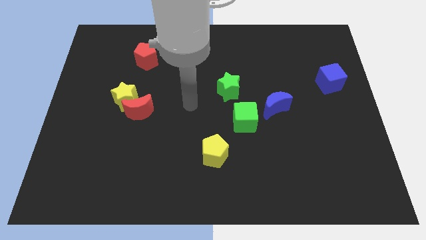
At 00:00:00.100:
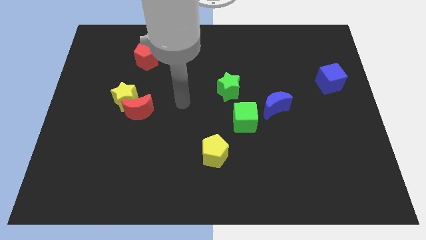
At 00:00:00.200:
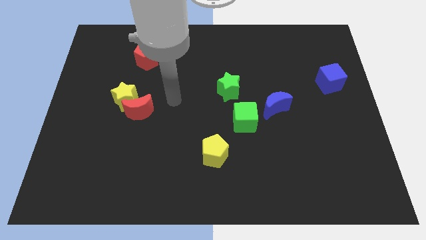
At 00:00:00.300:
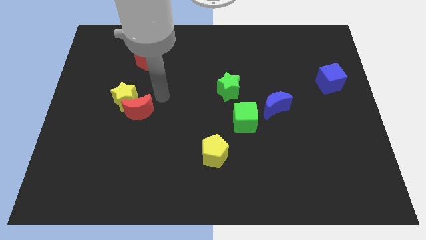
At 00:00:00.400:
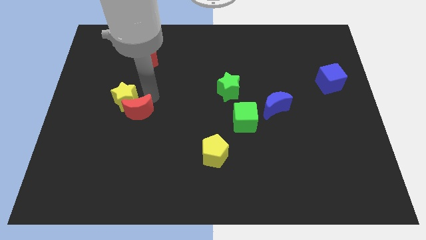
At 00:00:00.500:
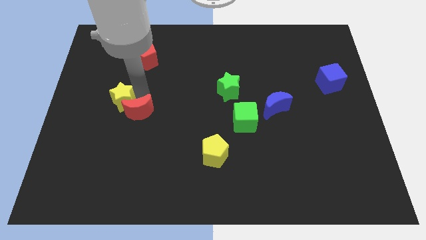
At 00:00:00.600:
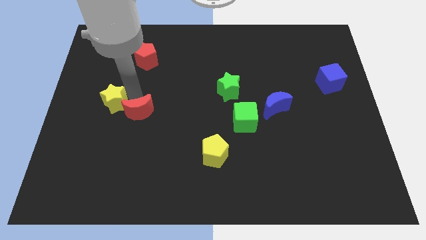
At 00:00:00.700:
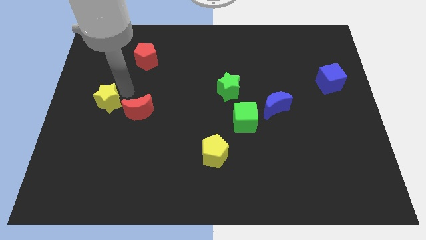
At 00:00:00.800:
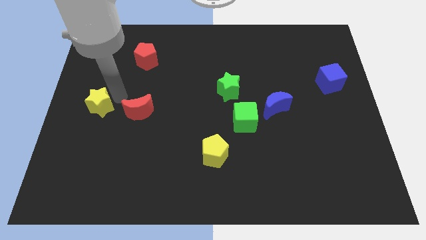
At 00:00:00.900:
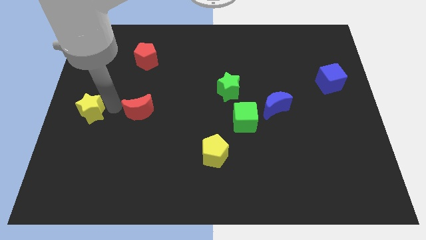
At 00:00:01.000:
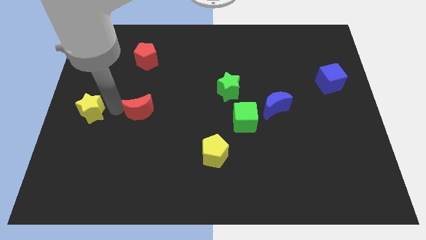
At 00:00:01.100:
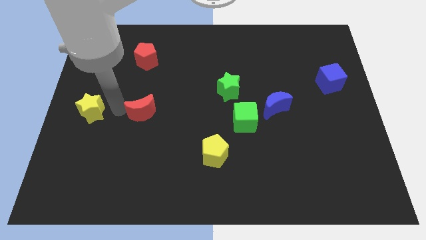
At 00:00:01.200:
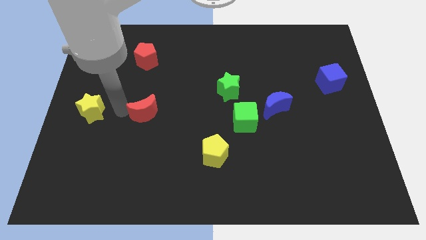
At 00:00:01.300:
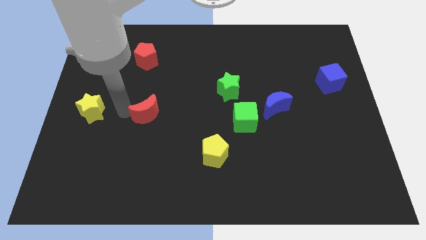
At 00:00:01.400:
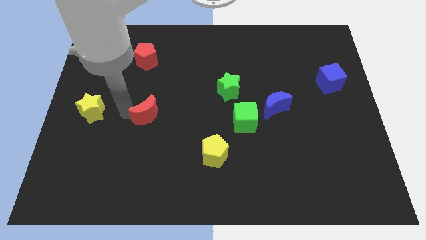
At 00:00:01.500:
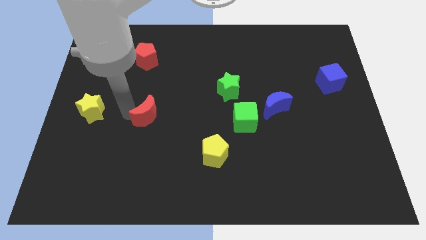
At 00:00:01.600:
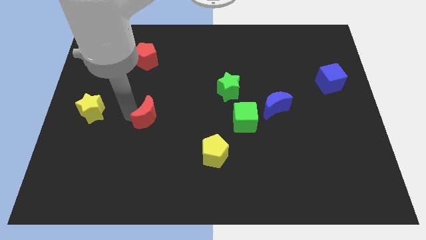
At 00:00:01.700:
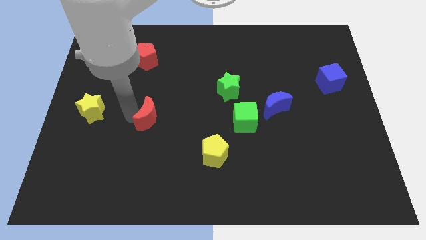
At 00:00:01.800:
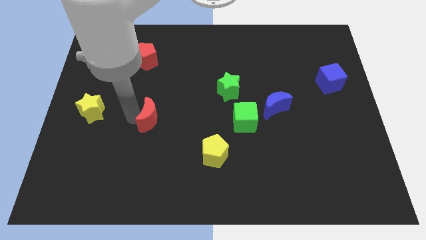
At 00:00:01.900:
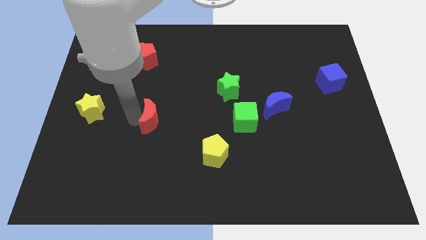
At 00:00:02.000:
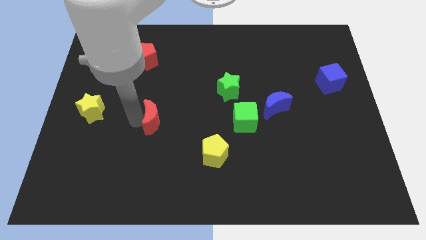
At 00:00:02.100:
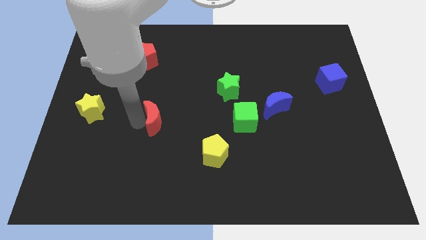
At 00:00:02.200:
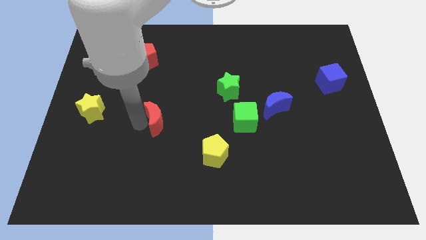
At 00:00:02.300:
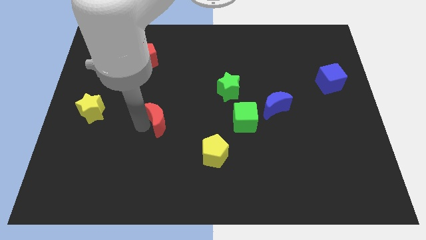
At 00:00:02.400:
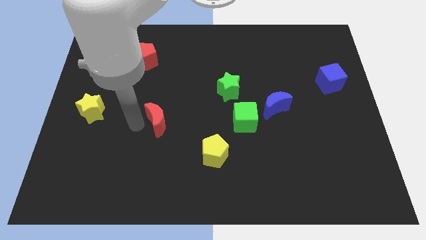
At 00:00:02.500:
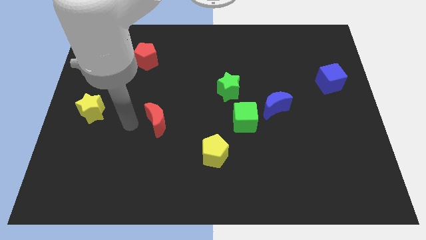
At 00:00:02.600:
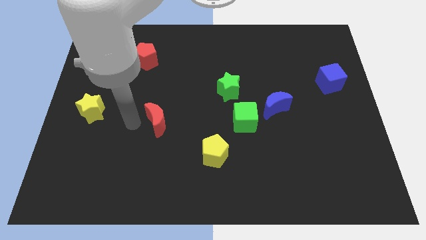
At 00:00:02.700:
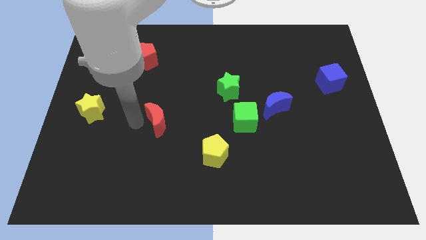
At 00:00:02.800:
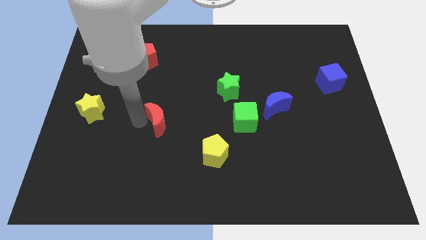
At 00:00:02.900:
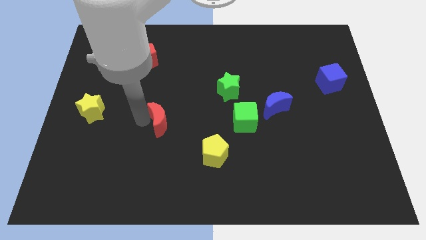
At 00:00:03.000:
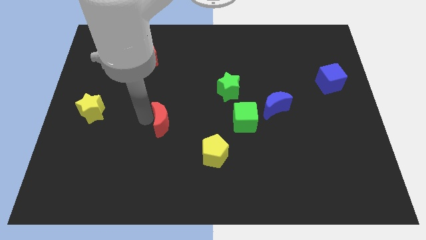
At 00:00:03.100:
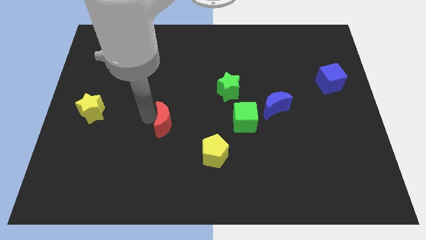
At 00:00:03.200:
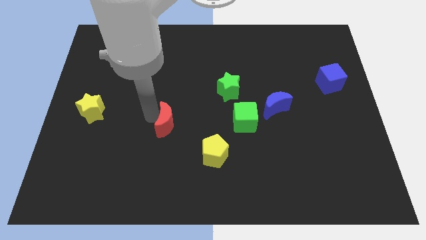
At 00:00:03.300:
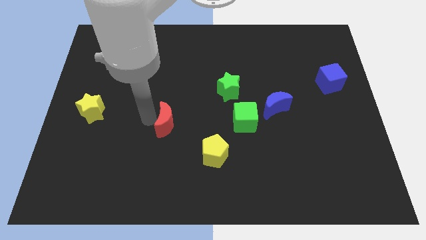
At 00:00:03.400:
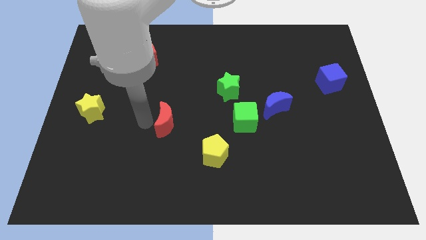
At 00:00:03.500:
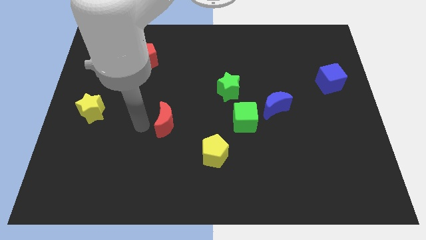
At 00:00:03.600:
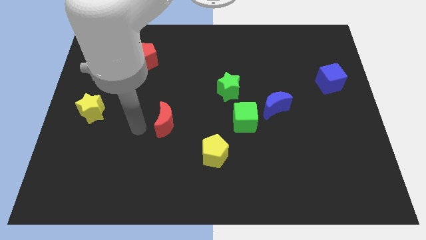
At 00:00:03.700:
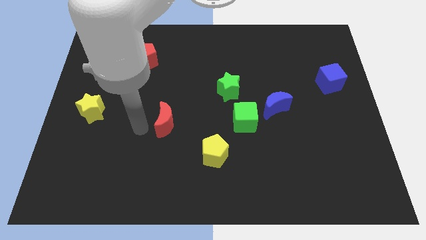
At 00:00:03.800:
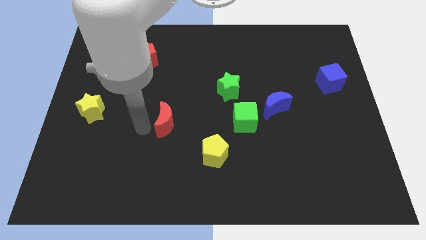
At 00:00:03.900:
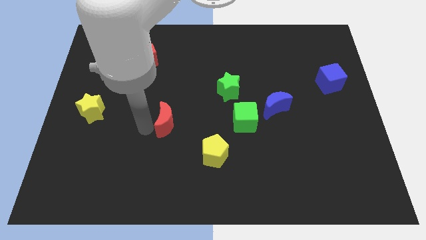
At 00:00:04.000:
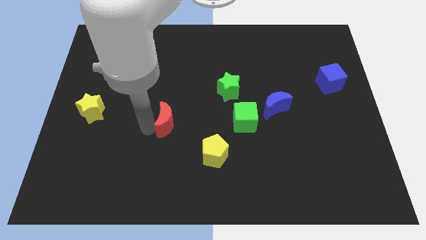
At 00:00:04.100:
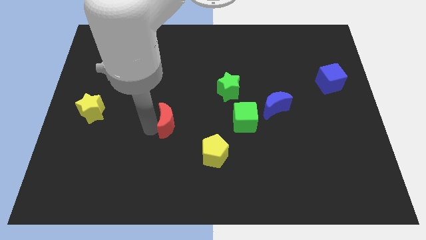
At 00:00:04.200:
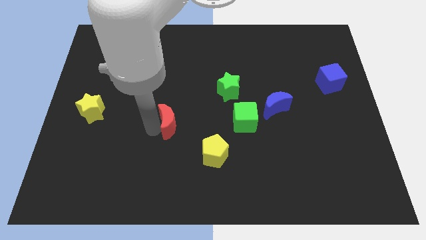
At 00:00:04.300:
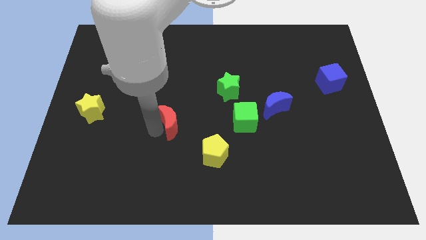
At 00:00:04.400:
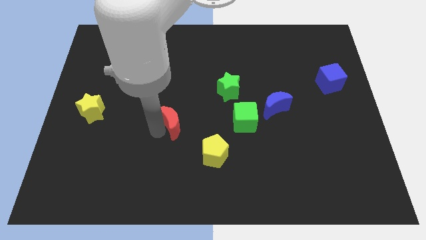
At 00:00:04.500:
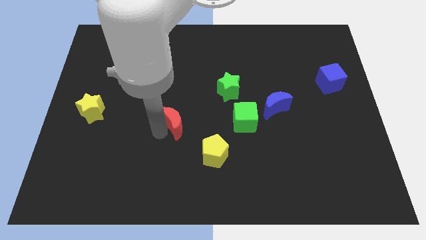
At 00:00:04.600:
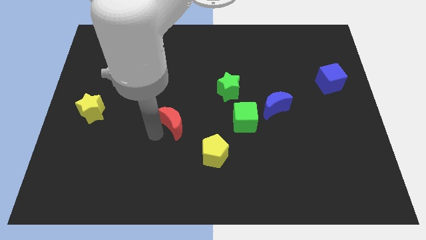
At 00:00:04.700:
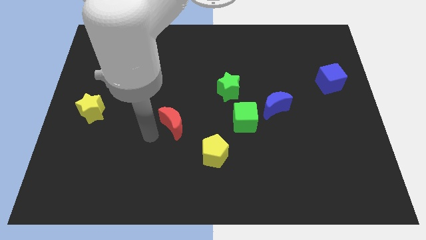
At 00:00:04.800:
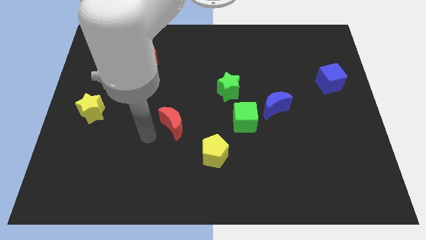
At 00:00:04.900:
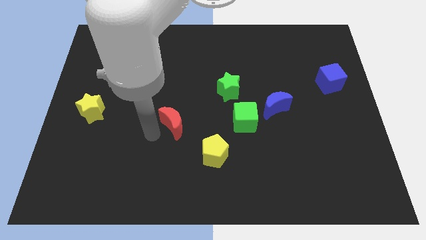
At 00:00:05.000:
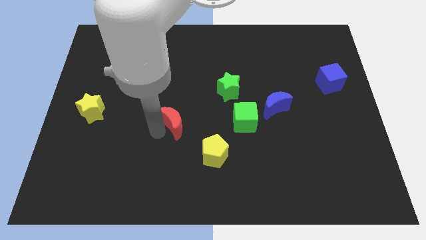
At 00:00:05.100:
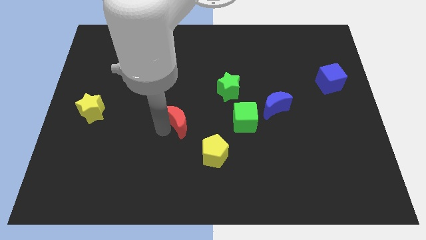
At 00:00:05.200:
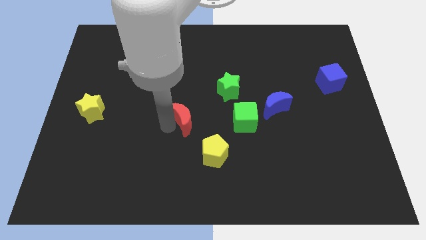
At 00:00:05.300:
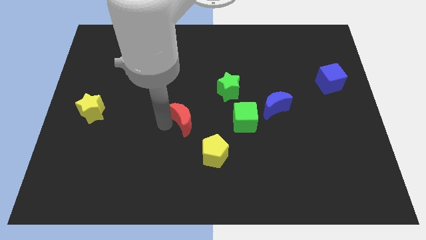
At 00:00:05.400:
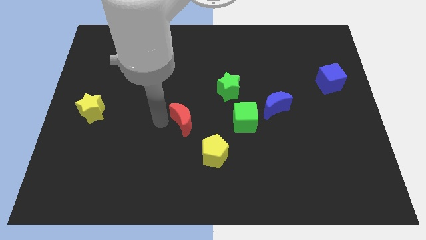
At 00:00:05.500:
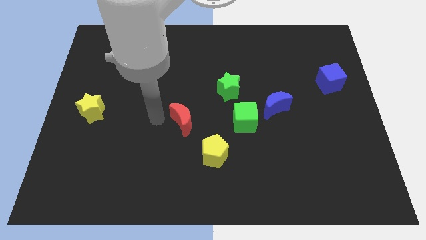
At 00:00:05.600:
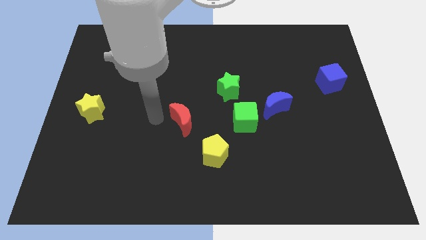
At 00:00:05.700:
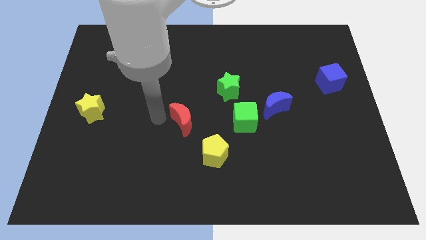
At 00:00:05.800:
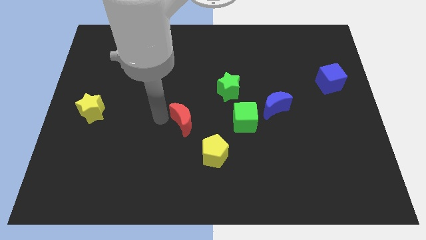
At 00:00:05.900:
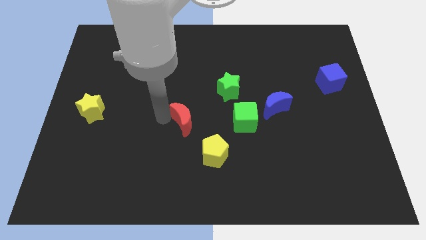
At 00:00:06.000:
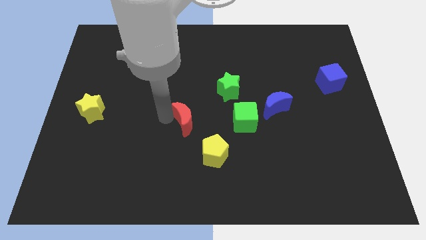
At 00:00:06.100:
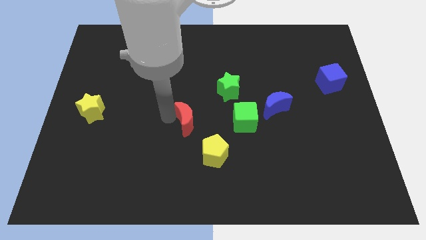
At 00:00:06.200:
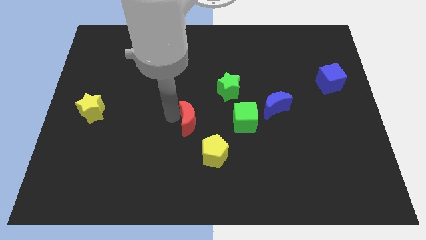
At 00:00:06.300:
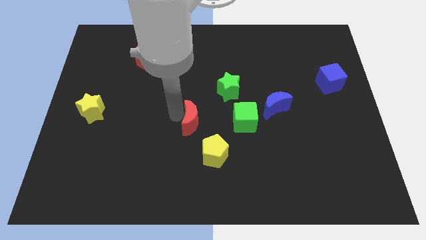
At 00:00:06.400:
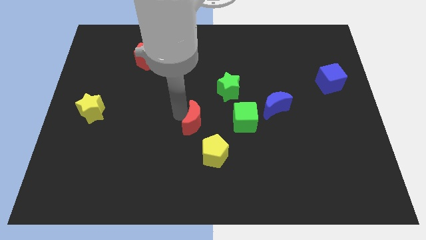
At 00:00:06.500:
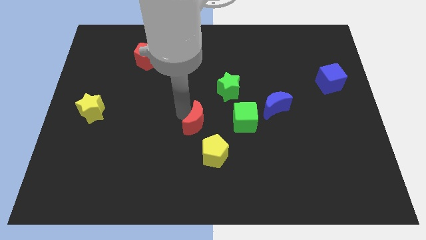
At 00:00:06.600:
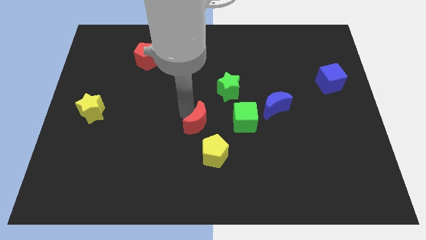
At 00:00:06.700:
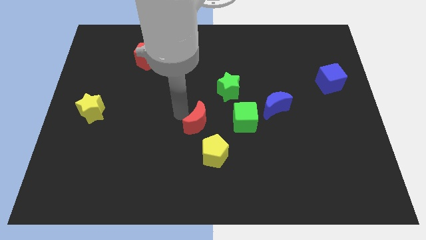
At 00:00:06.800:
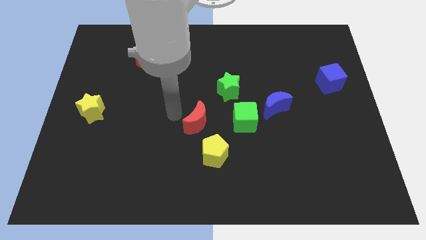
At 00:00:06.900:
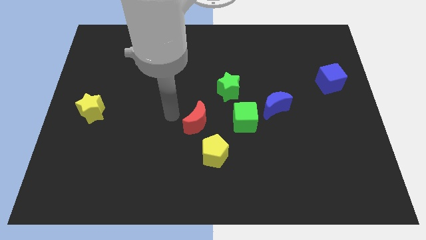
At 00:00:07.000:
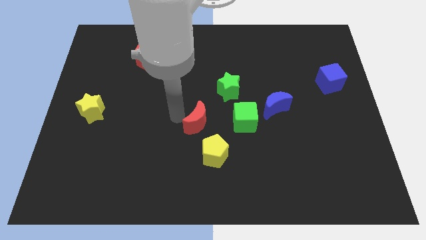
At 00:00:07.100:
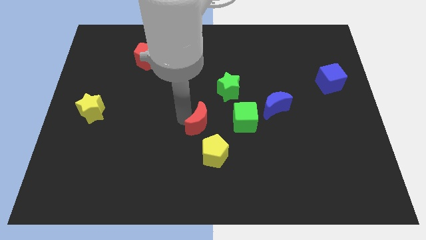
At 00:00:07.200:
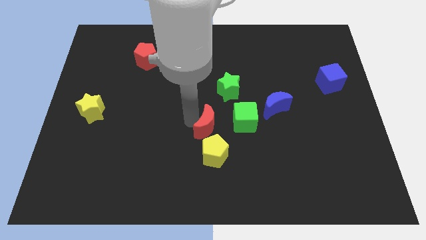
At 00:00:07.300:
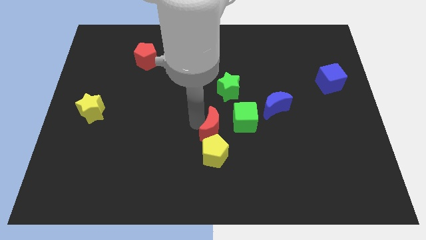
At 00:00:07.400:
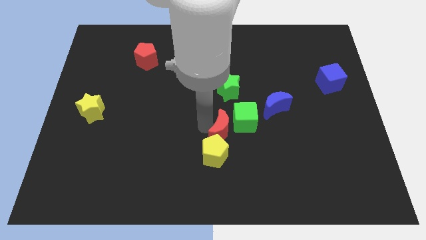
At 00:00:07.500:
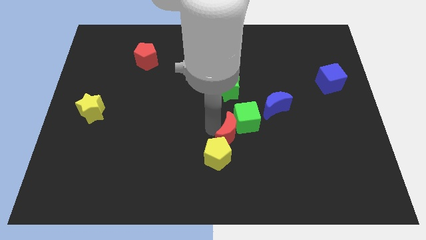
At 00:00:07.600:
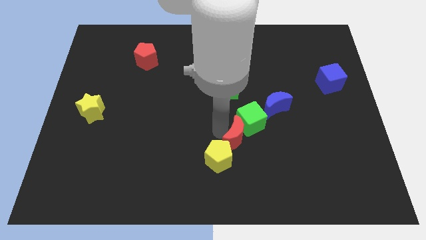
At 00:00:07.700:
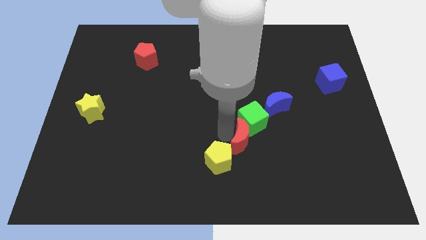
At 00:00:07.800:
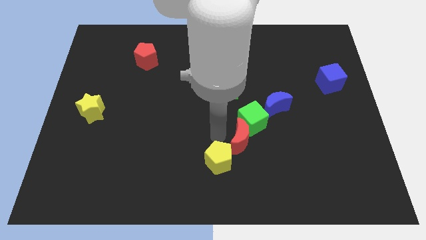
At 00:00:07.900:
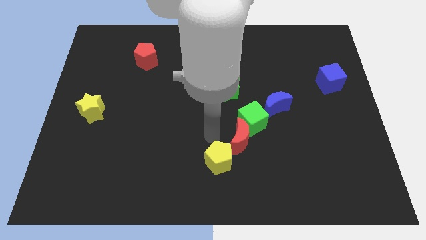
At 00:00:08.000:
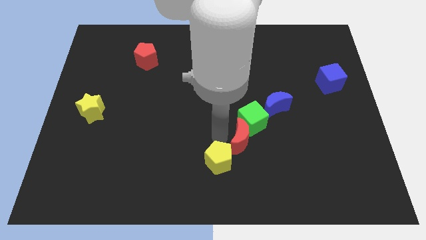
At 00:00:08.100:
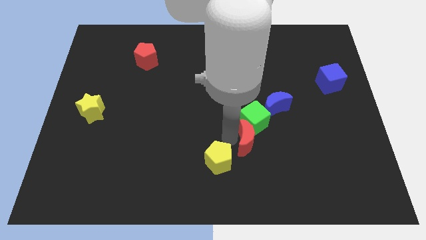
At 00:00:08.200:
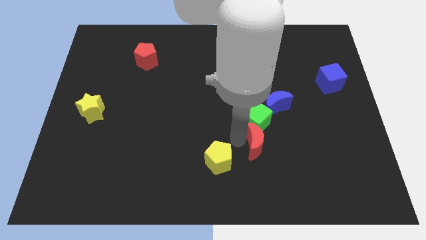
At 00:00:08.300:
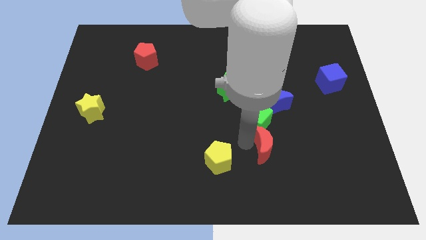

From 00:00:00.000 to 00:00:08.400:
slide the red moon to the bottom of the blue moon
